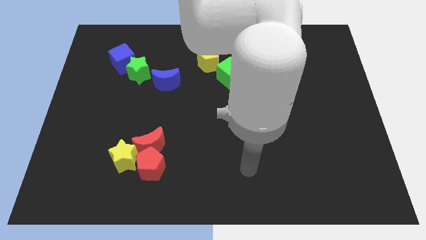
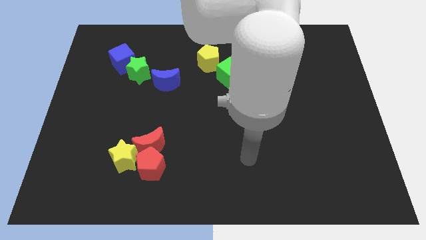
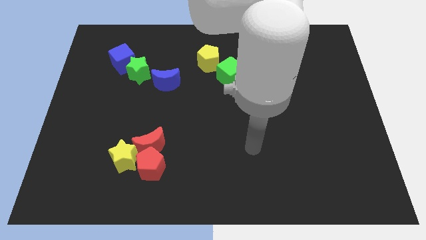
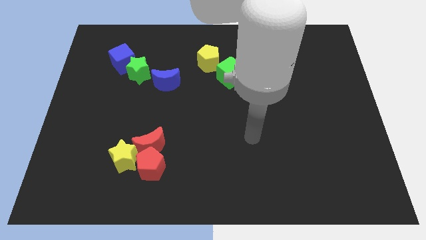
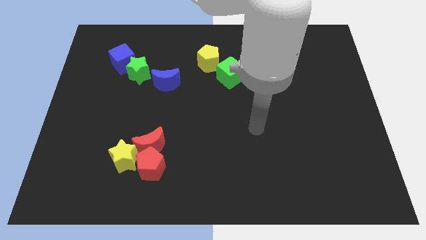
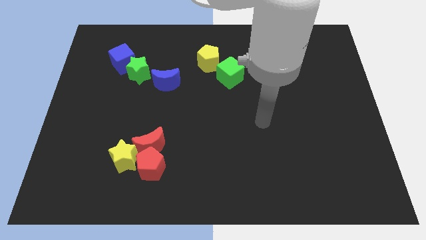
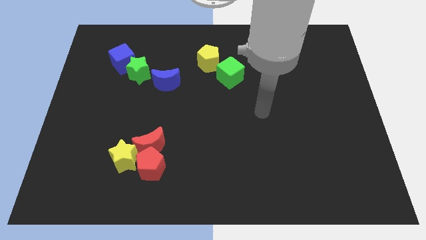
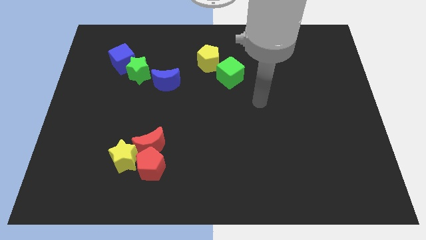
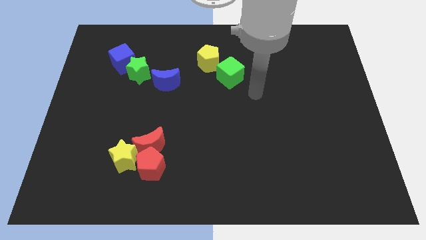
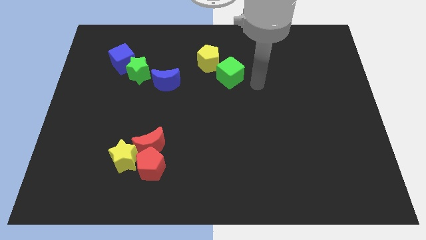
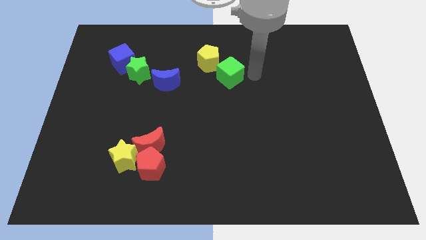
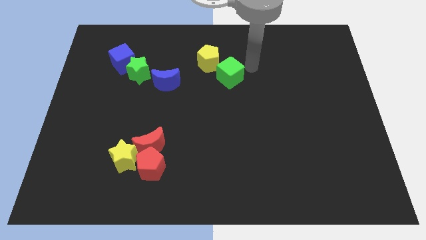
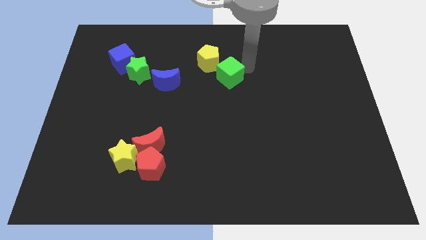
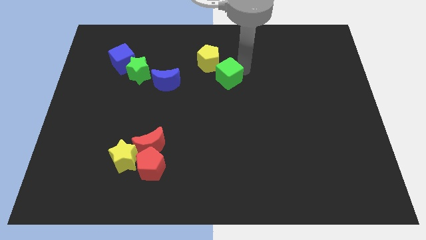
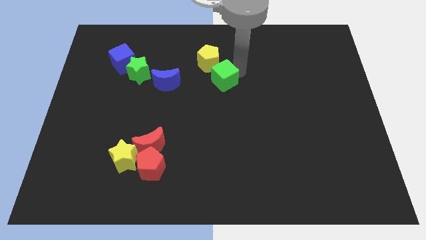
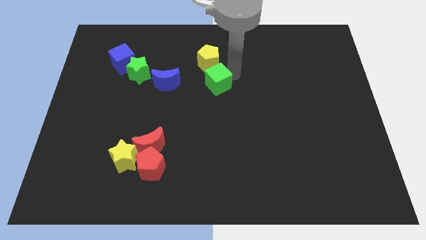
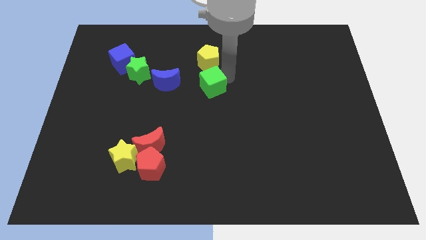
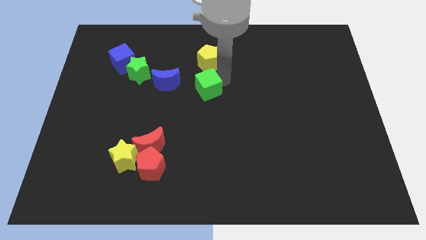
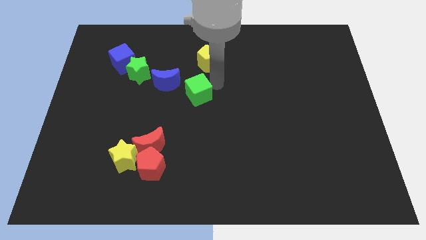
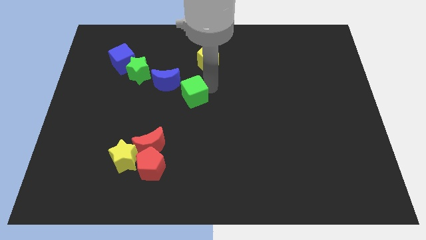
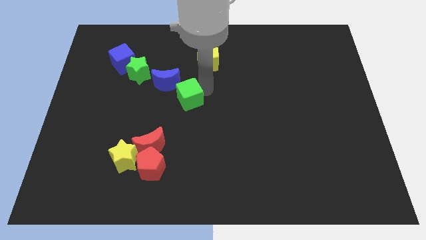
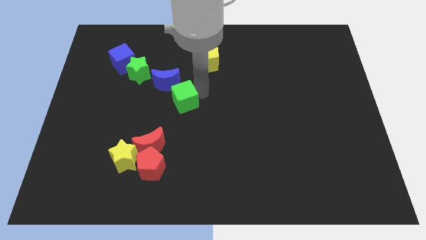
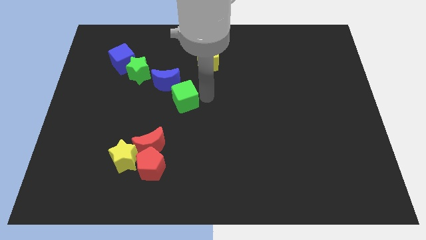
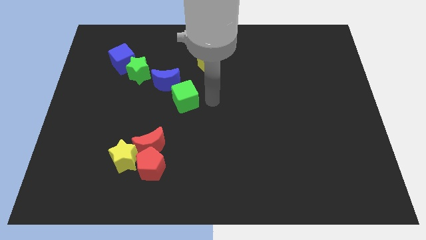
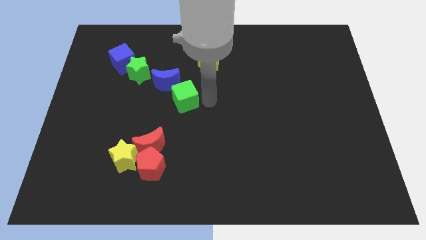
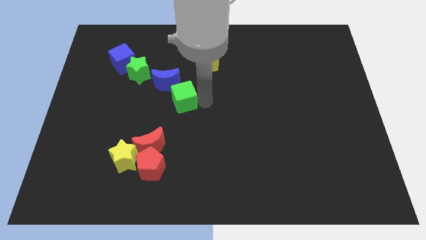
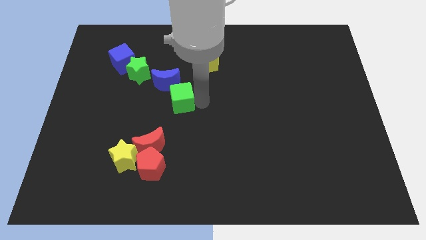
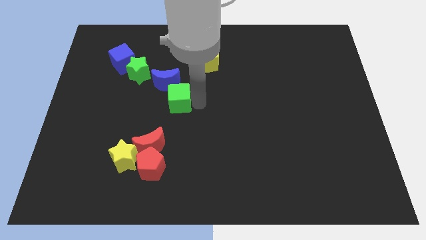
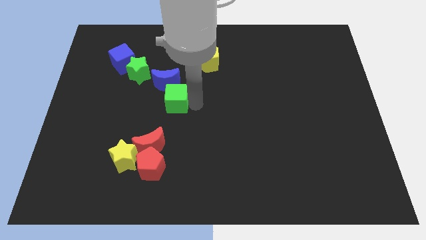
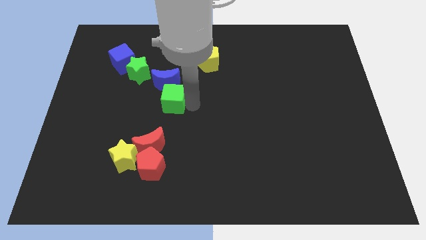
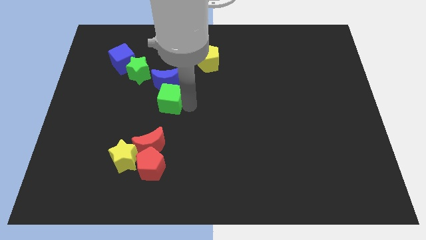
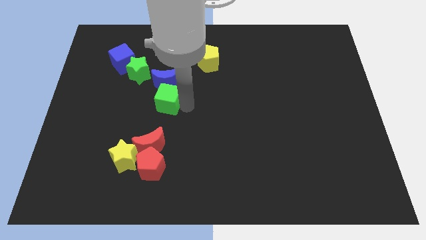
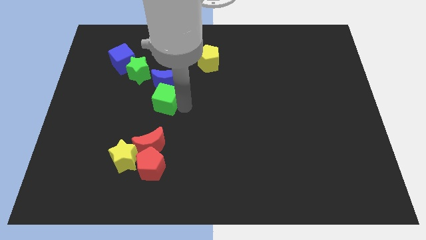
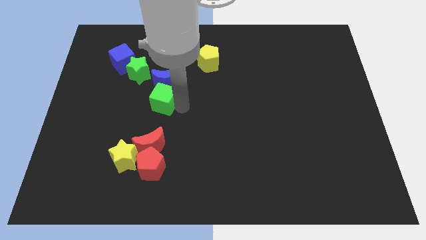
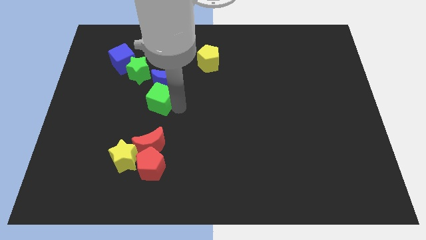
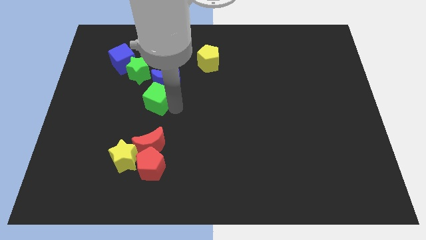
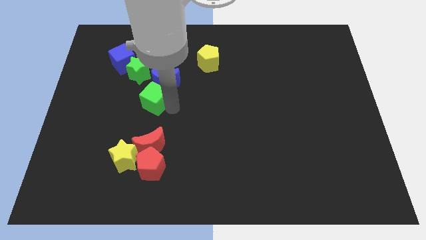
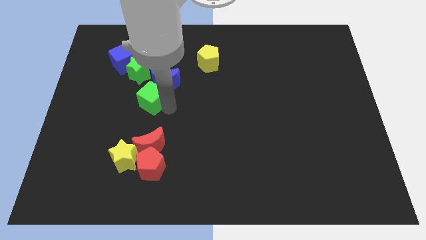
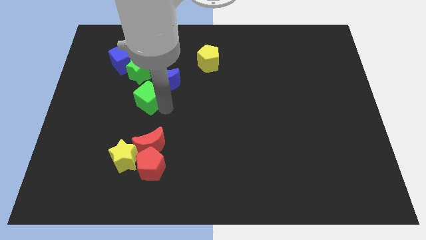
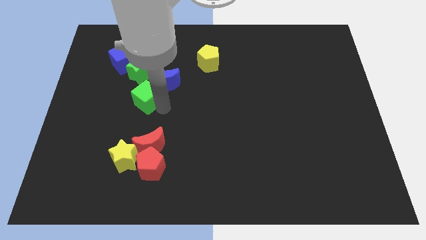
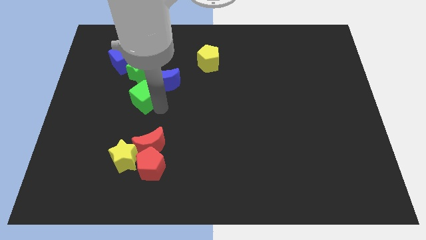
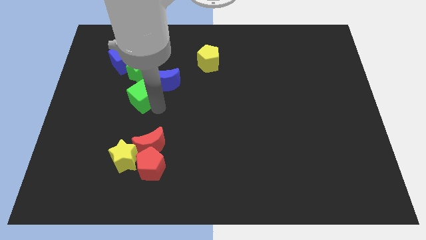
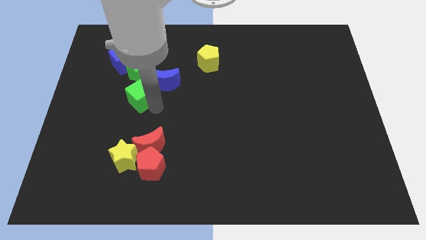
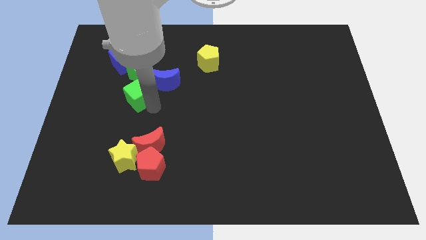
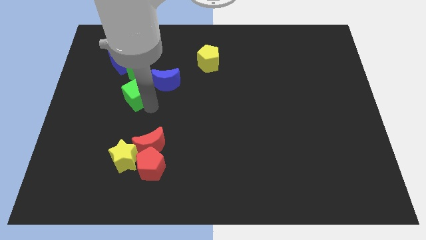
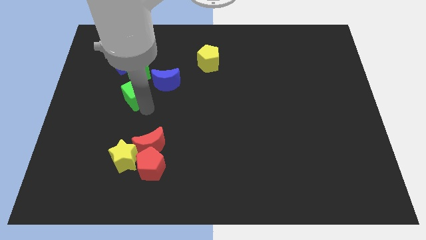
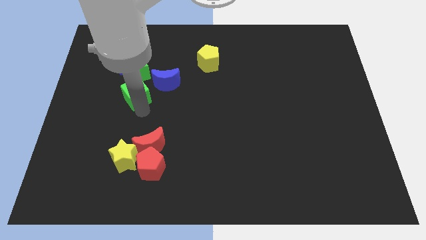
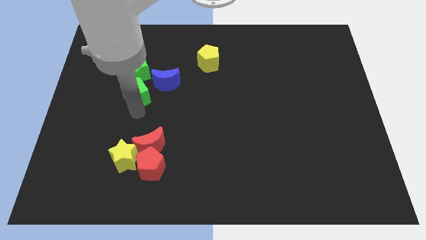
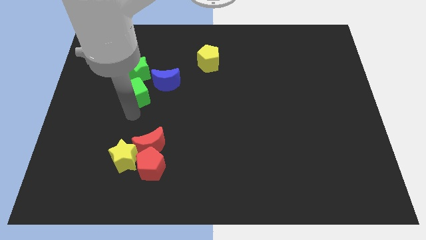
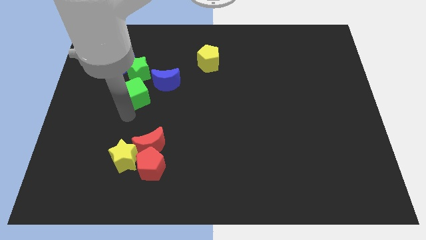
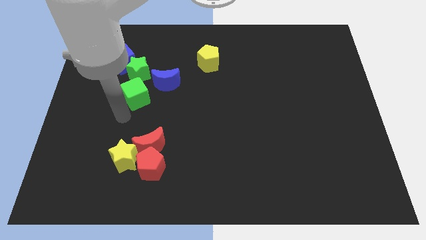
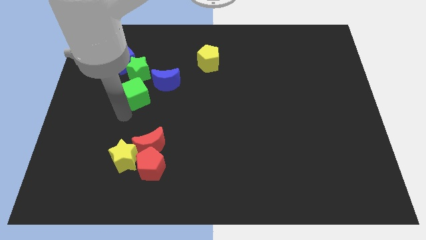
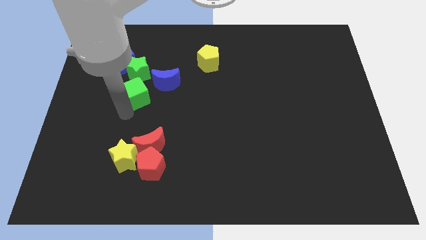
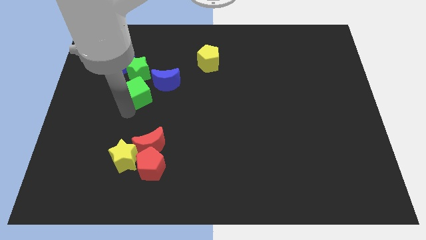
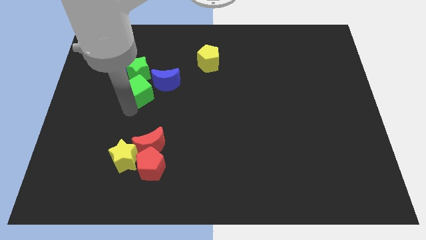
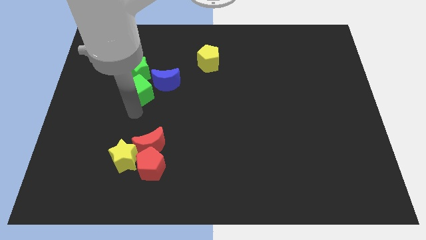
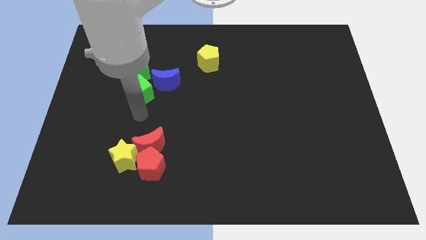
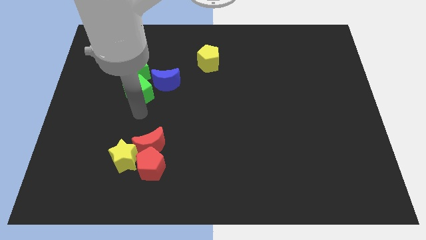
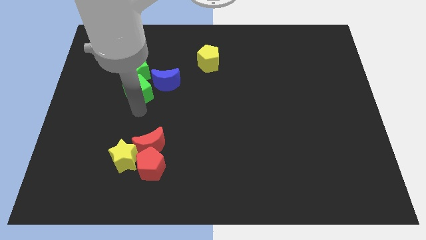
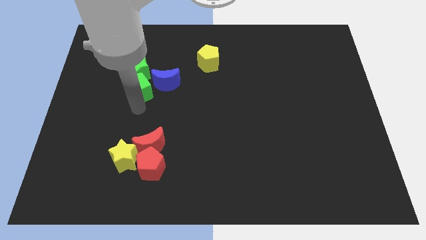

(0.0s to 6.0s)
slide the green cube next to the green star

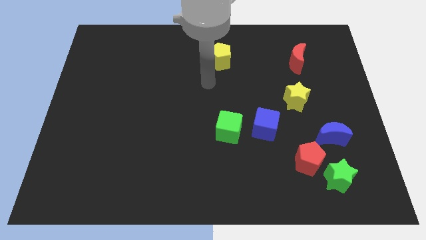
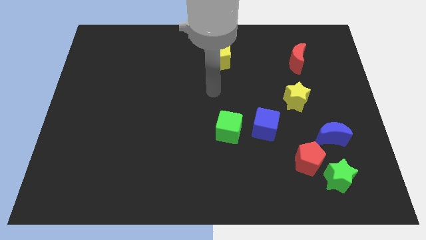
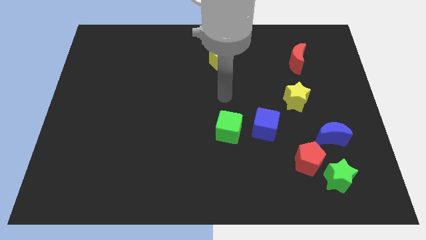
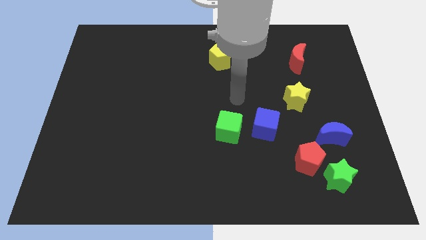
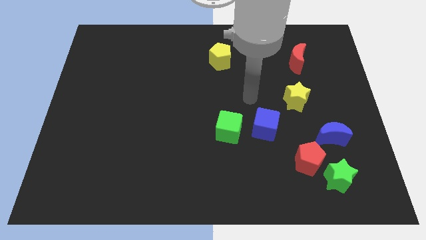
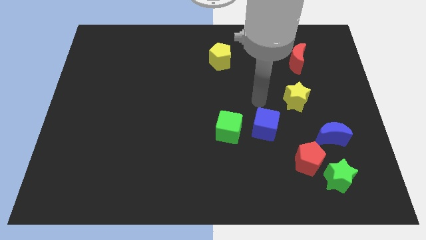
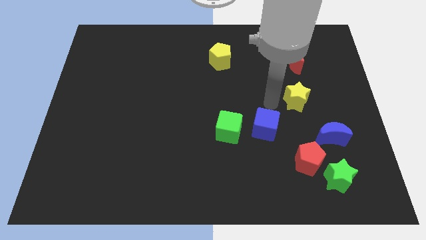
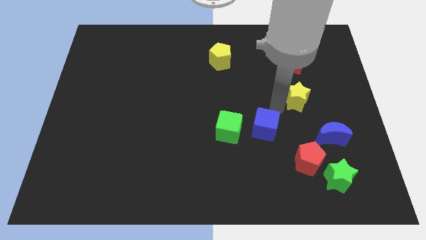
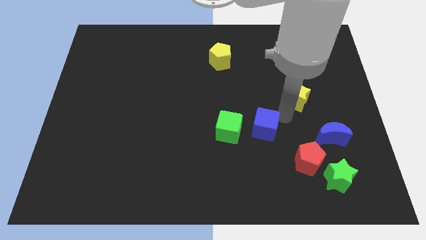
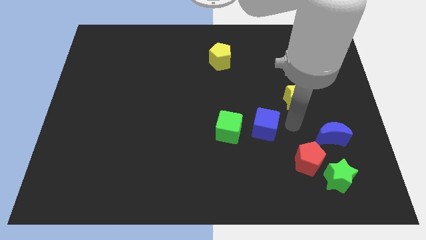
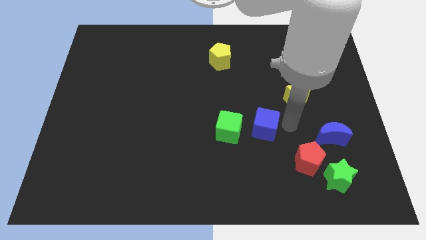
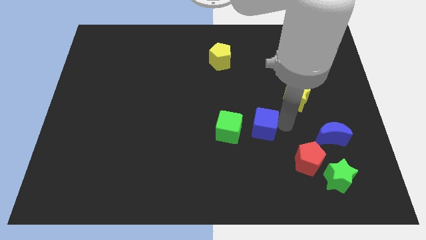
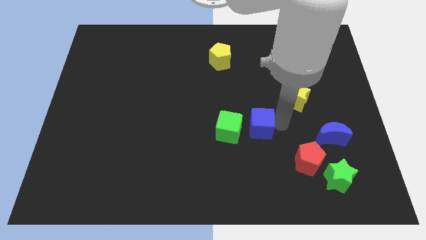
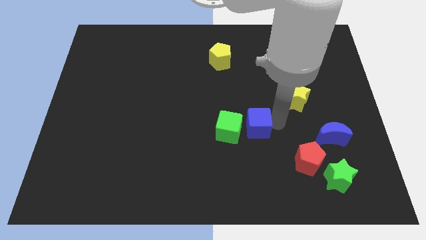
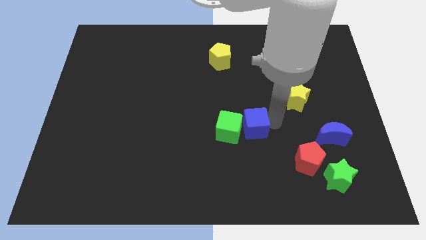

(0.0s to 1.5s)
move the blue cube close to the green cube
